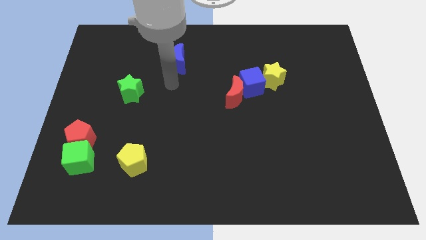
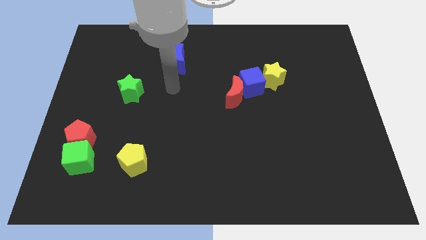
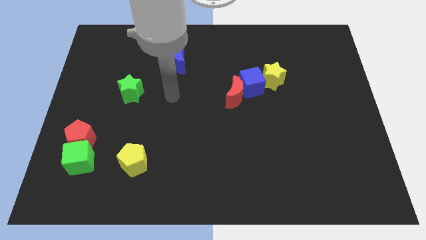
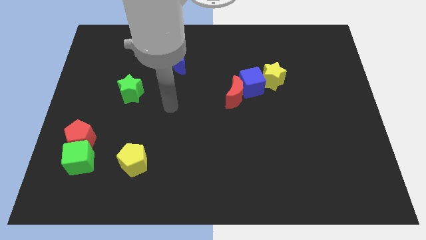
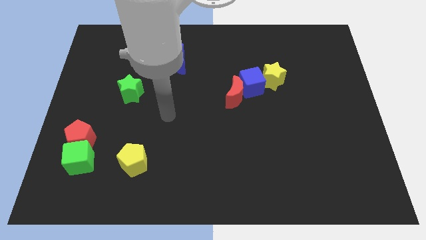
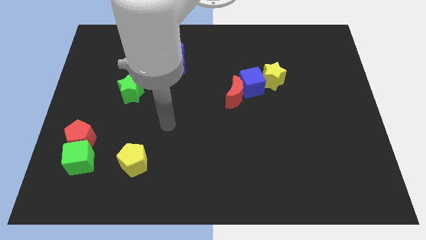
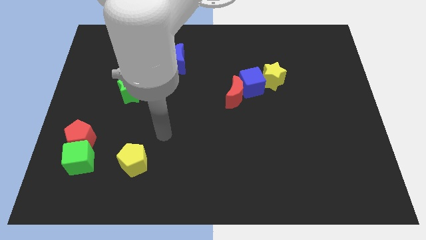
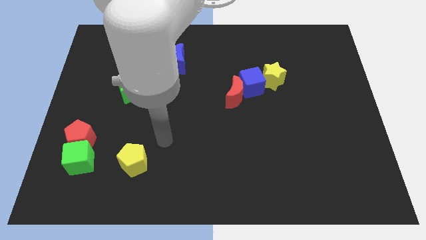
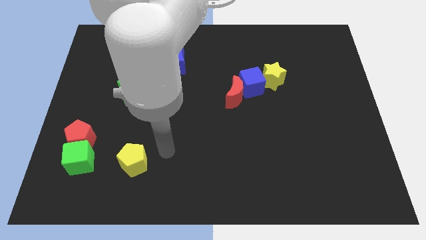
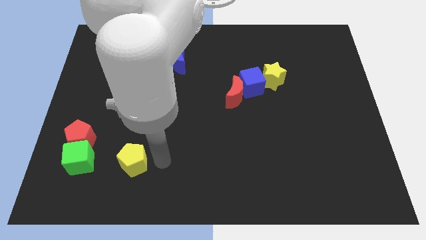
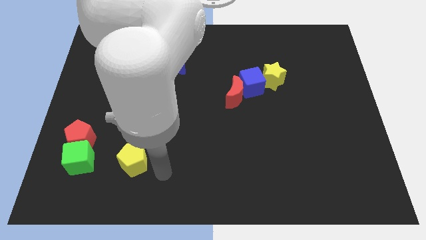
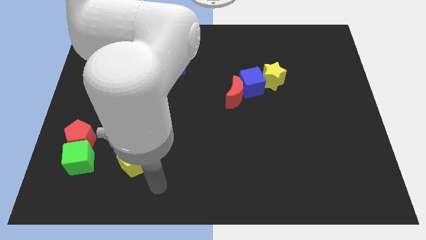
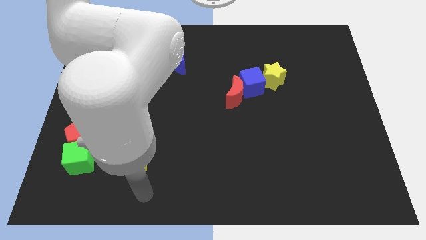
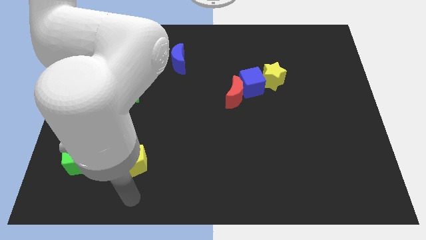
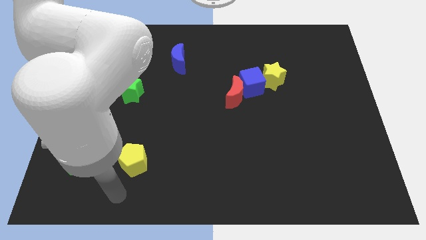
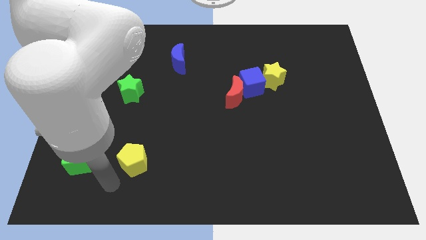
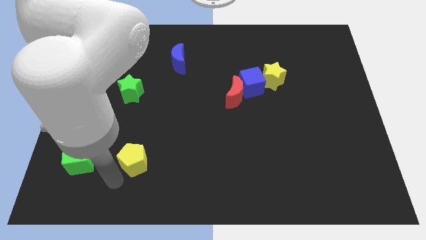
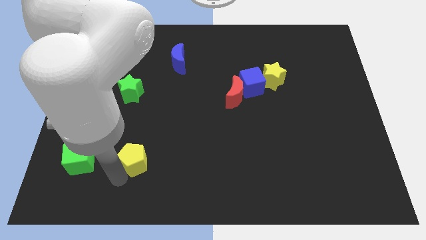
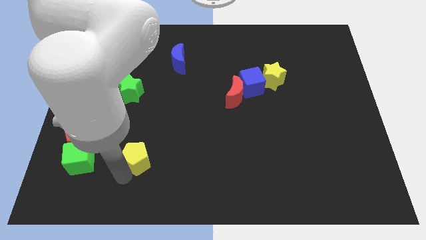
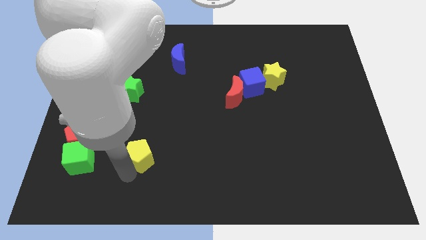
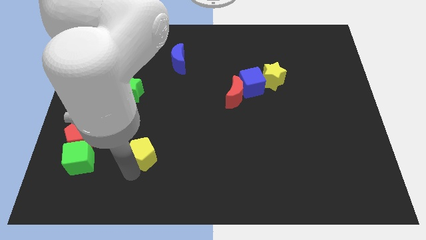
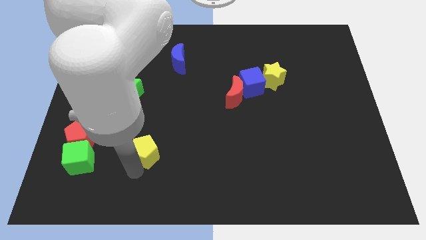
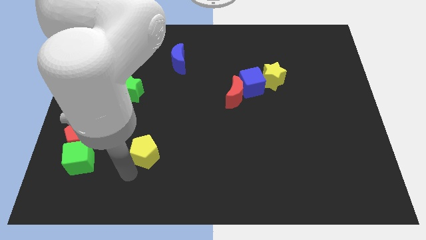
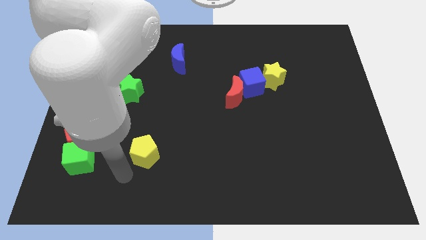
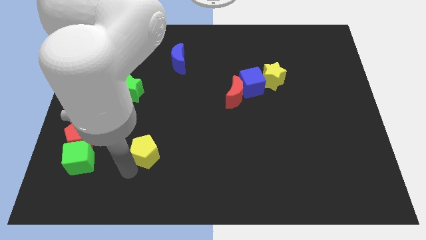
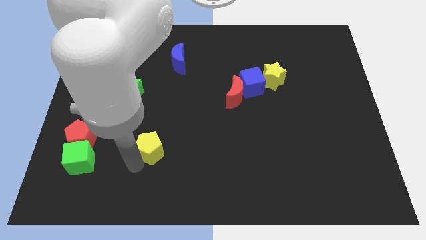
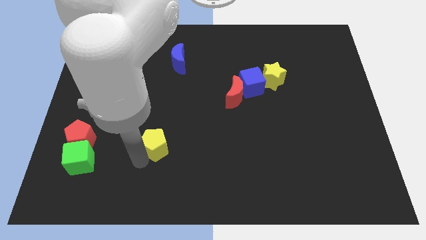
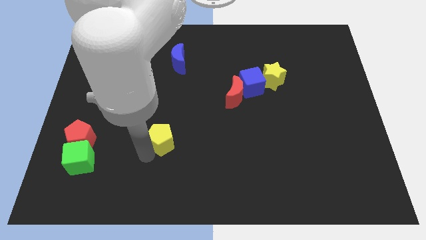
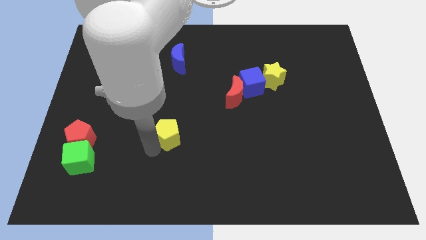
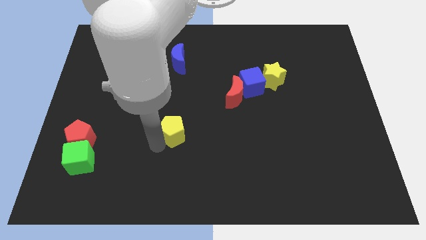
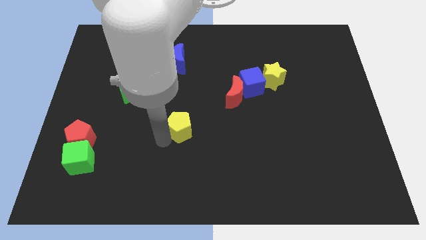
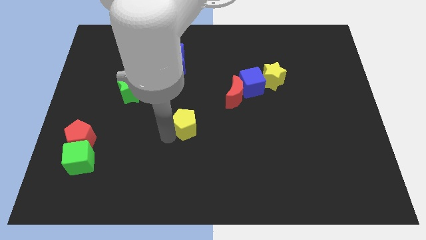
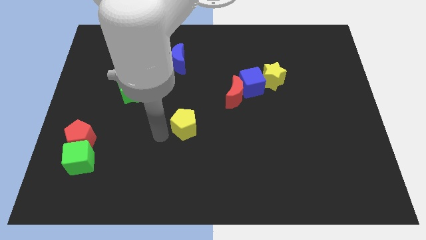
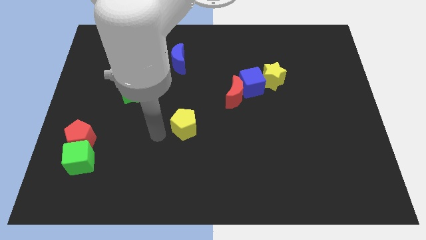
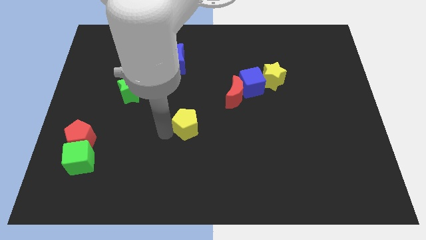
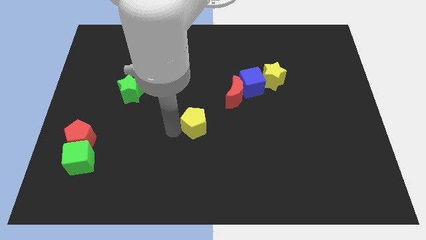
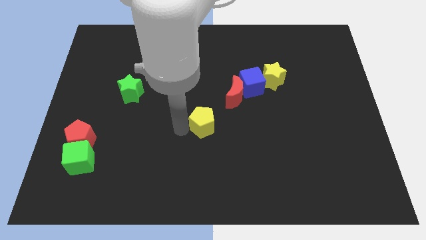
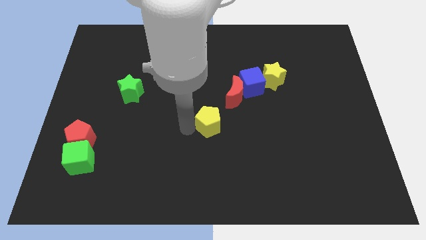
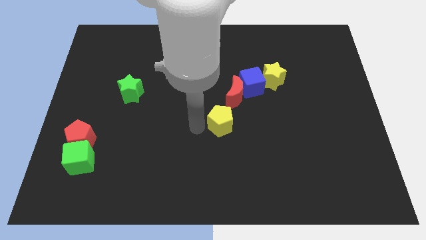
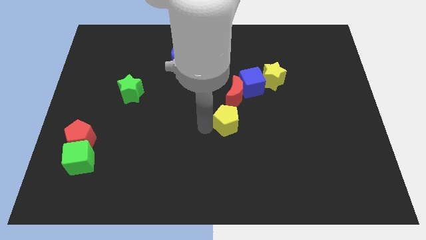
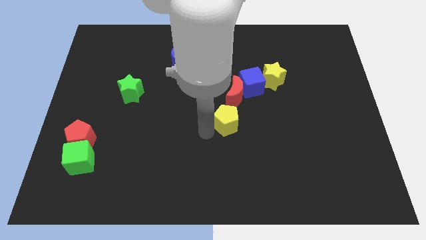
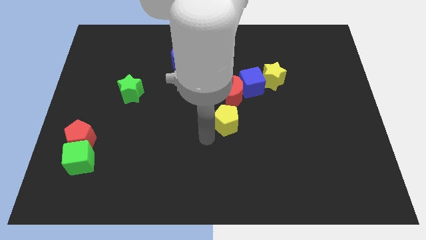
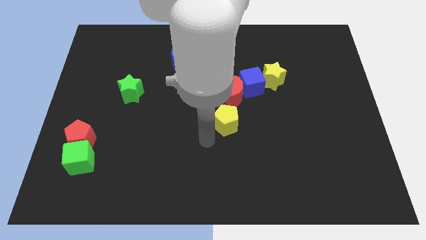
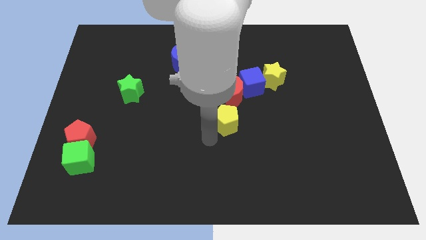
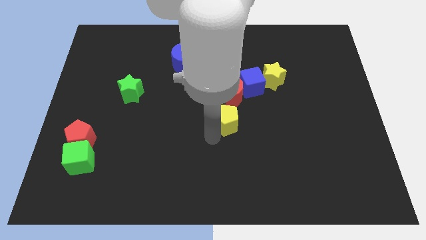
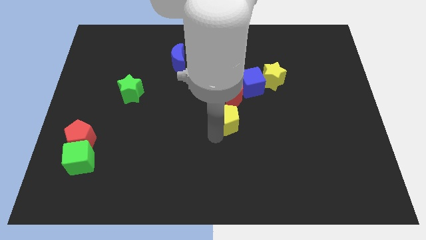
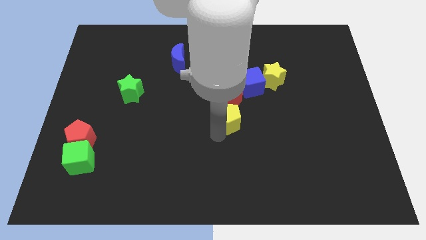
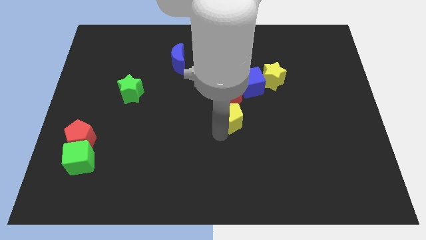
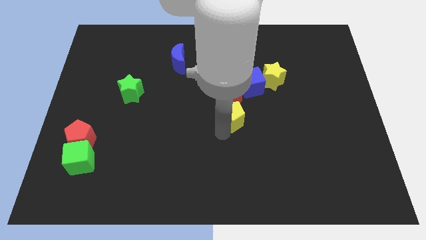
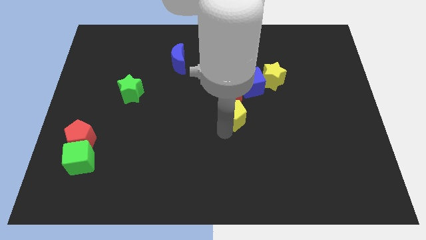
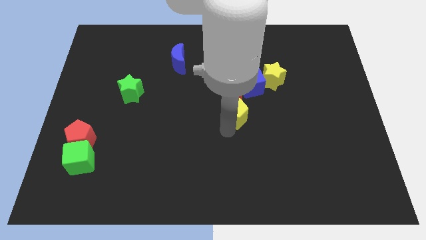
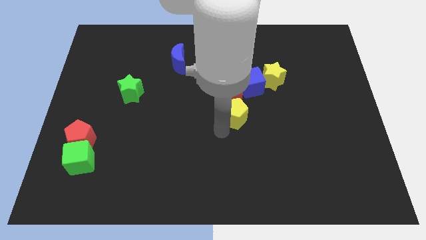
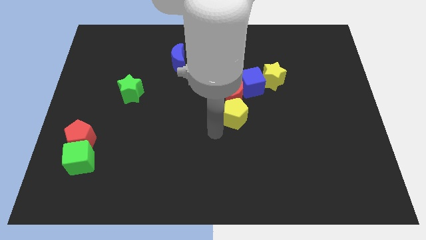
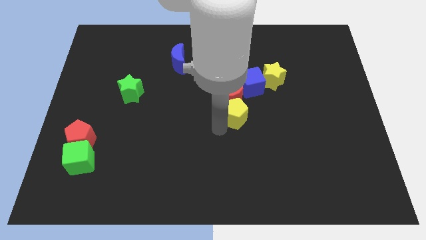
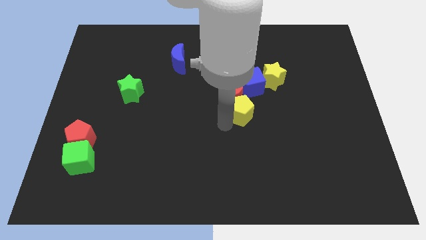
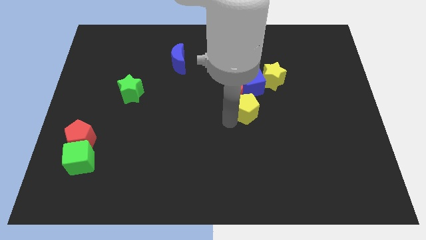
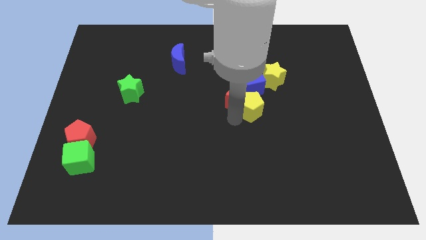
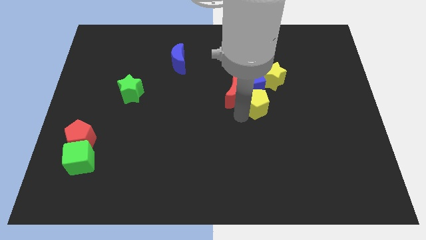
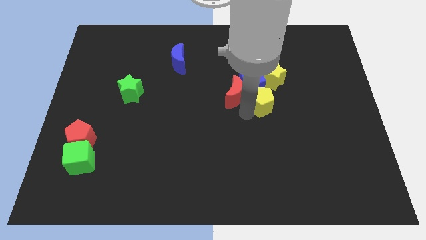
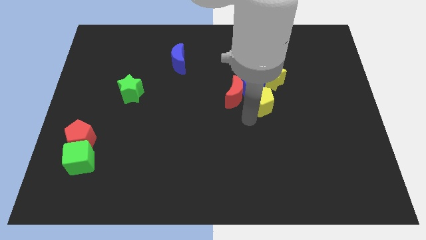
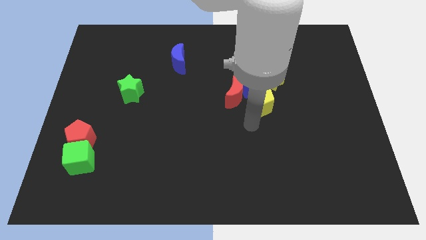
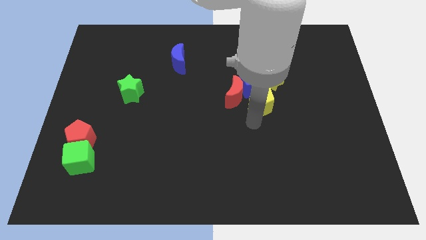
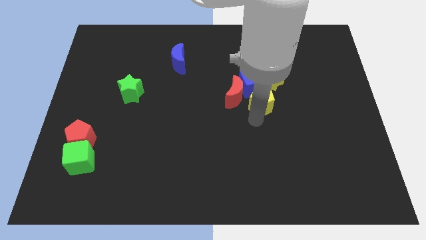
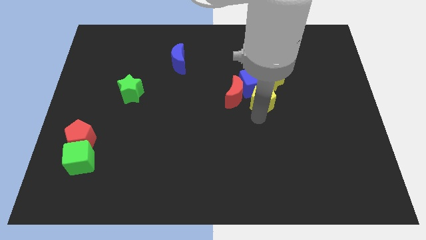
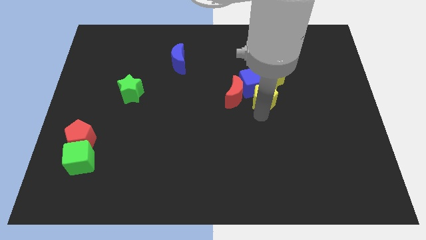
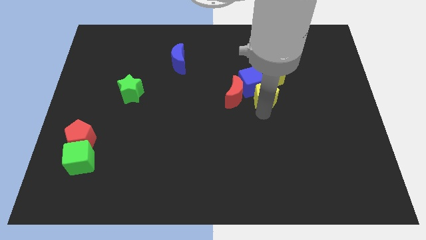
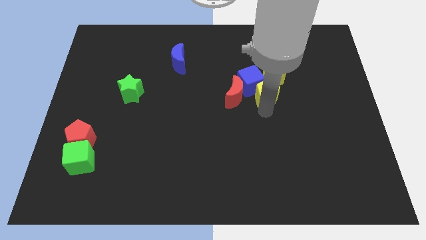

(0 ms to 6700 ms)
slide the yellow pentagon to the yellow star

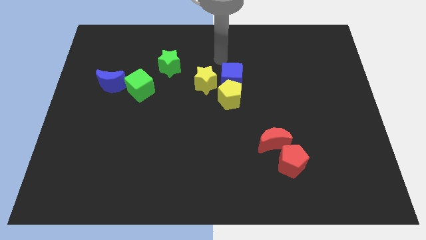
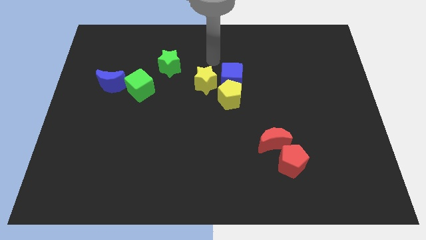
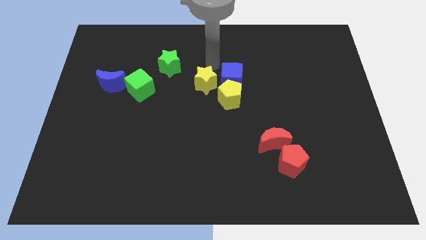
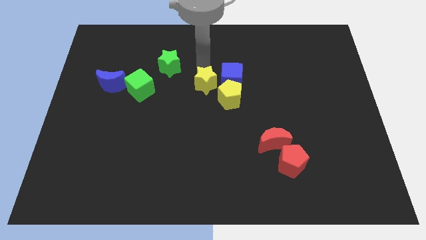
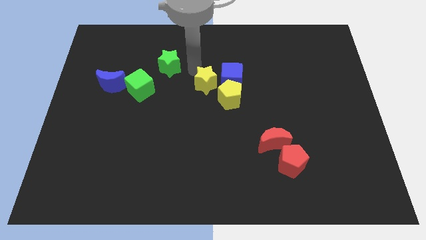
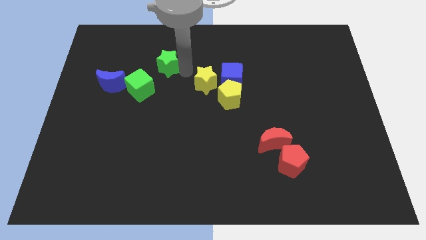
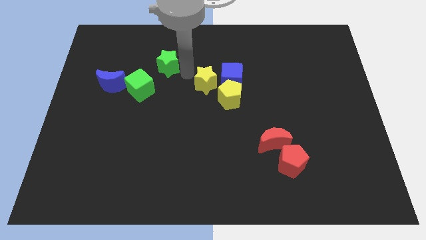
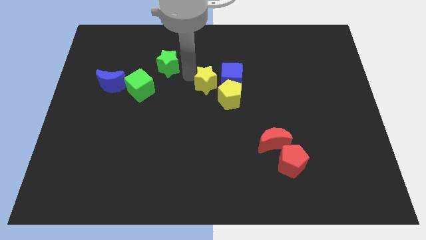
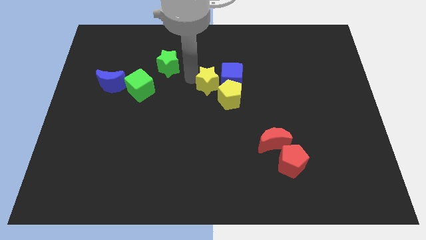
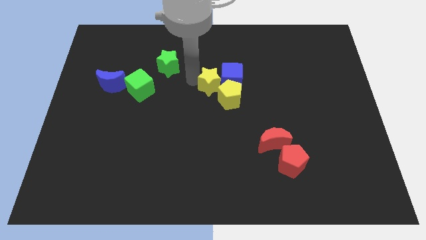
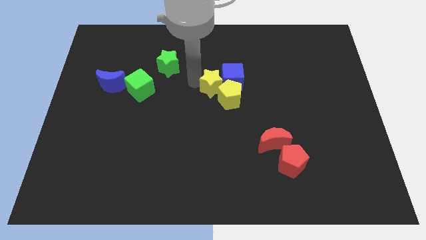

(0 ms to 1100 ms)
move the yellow star towards the yellow pentagon
